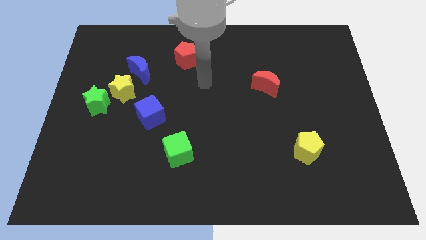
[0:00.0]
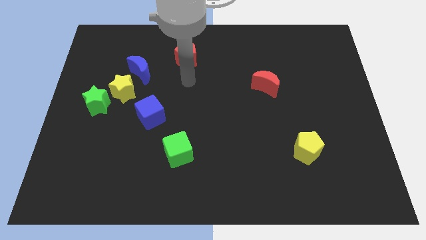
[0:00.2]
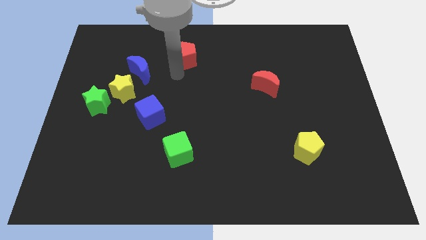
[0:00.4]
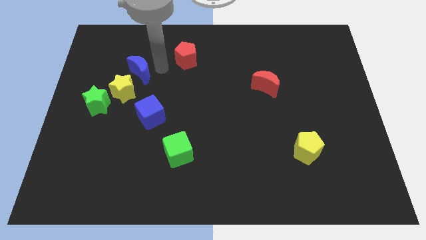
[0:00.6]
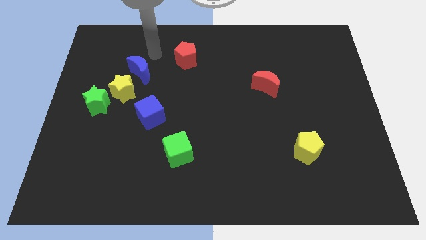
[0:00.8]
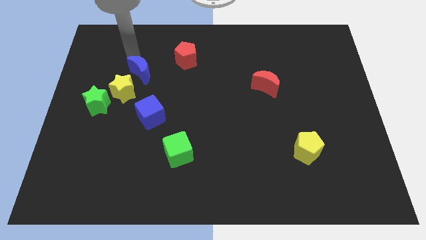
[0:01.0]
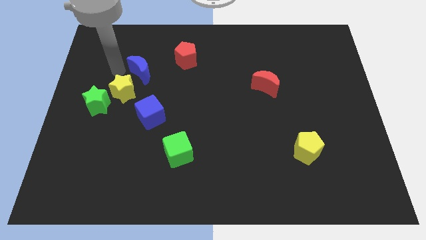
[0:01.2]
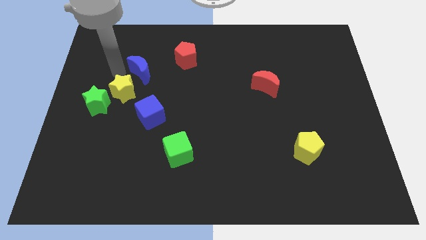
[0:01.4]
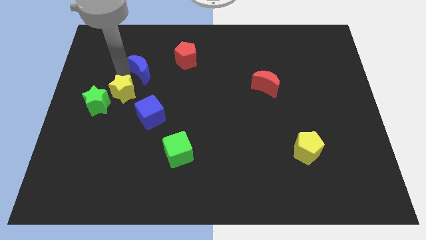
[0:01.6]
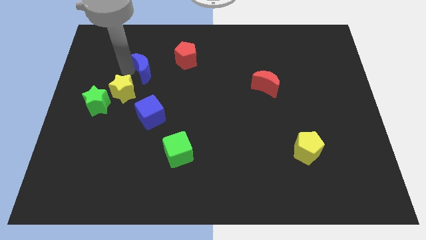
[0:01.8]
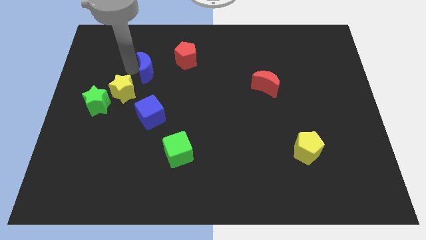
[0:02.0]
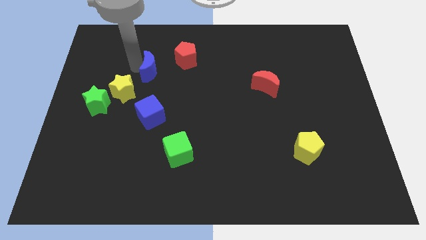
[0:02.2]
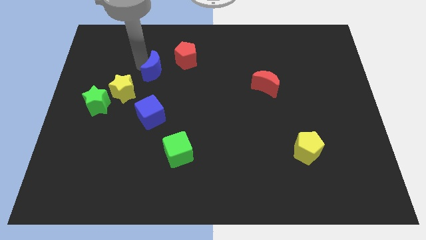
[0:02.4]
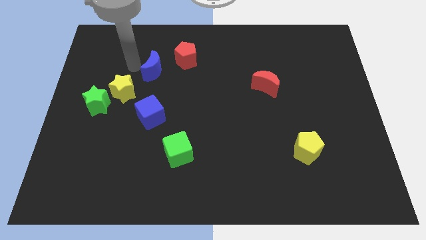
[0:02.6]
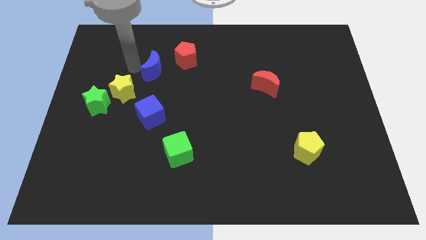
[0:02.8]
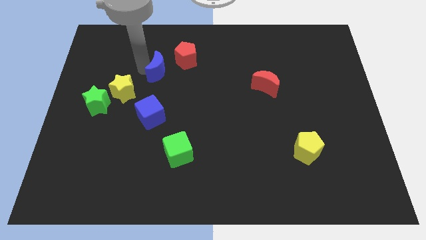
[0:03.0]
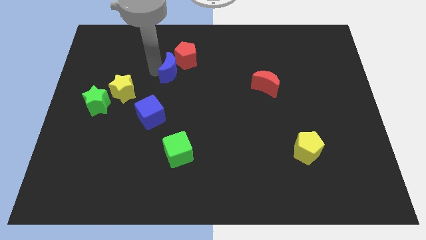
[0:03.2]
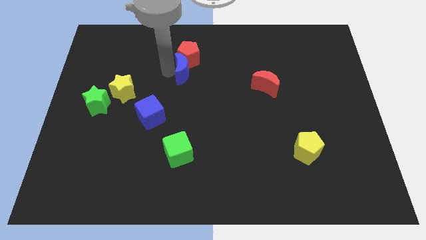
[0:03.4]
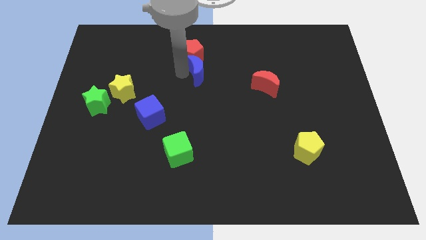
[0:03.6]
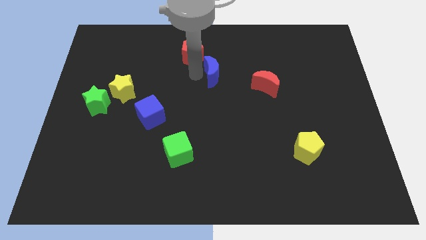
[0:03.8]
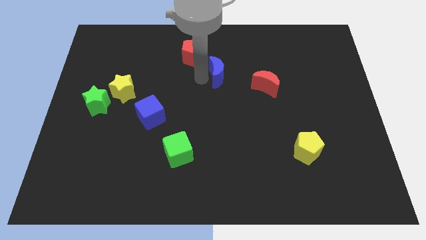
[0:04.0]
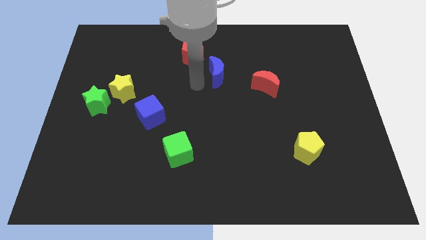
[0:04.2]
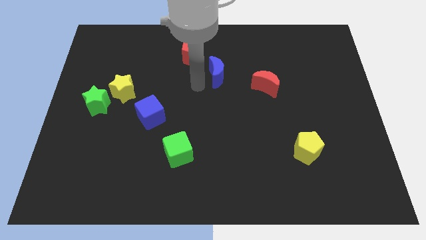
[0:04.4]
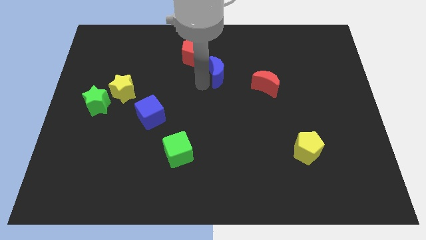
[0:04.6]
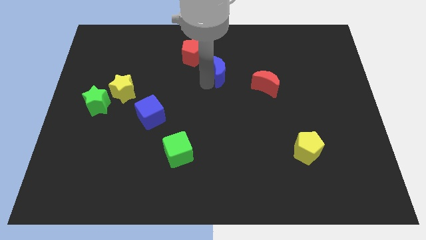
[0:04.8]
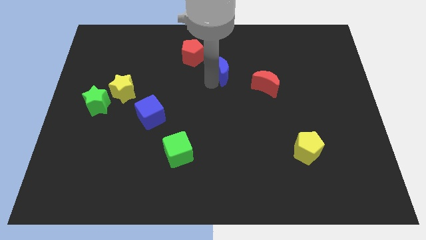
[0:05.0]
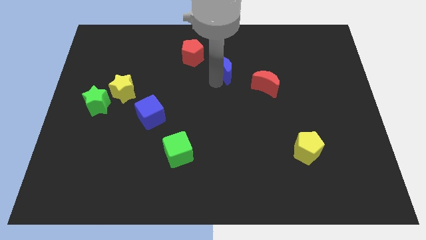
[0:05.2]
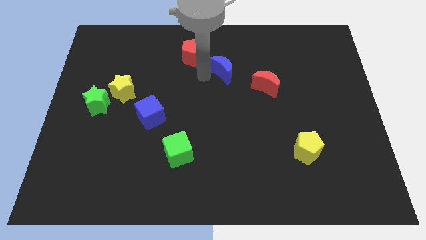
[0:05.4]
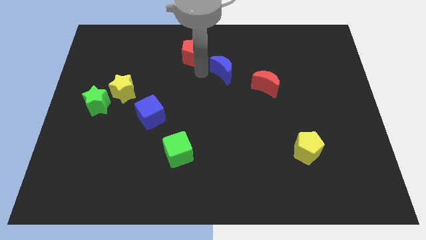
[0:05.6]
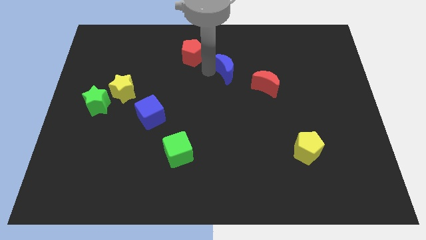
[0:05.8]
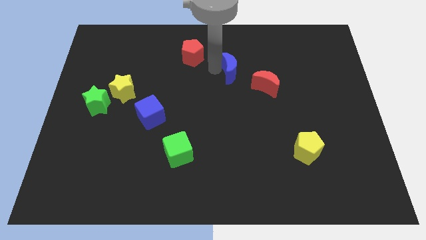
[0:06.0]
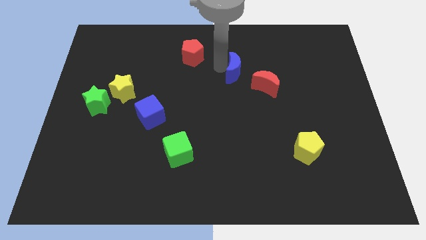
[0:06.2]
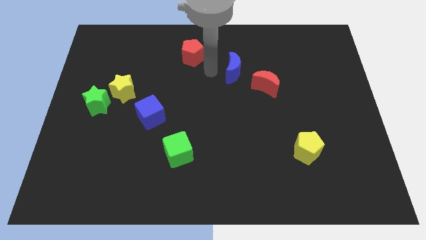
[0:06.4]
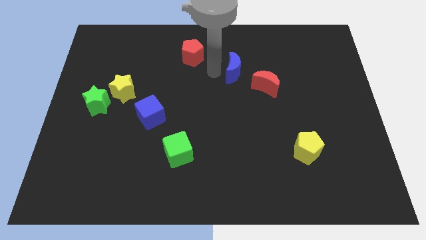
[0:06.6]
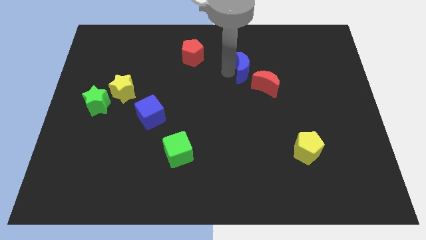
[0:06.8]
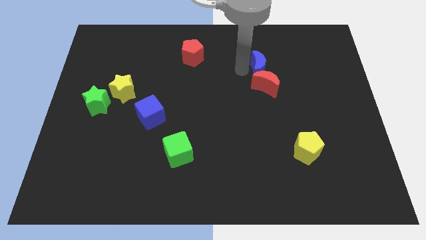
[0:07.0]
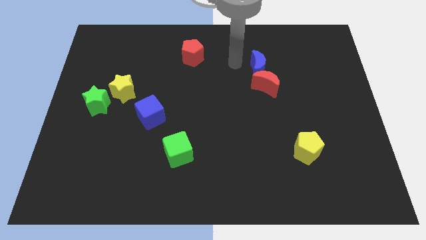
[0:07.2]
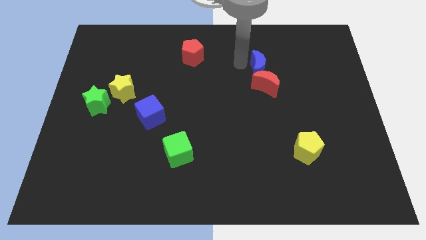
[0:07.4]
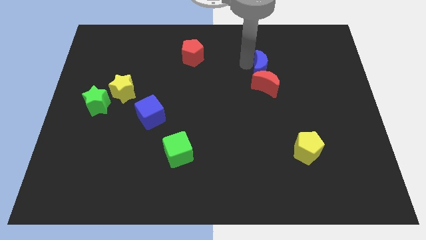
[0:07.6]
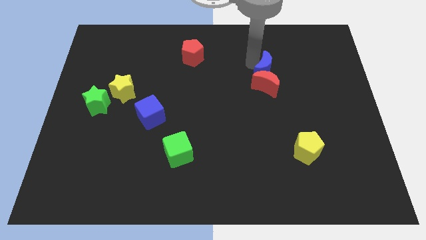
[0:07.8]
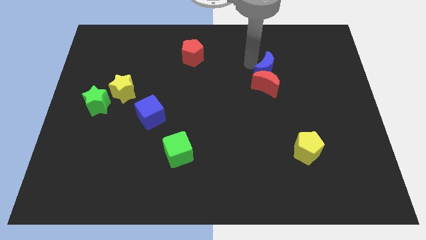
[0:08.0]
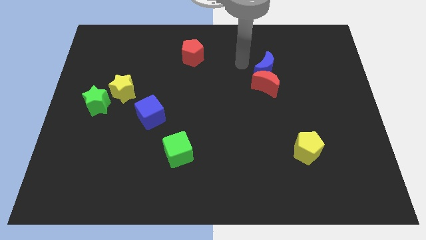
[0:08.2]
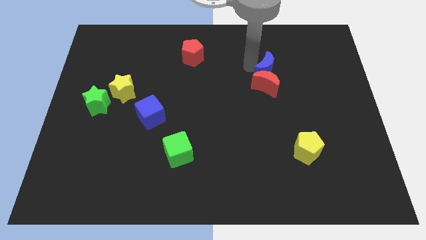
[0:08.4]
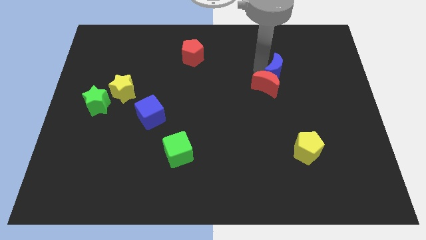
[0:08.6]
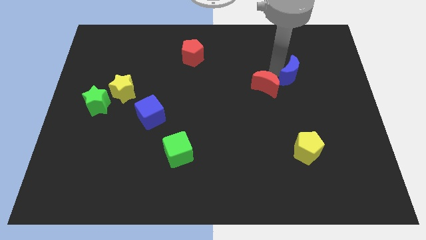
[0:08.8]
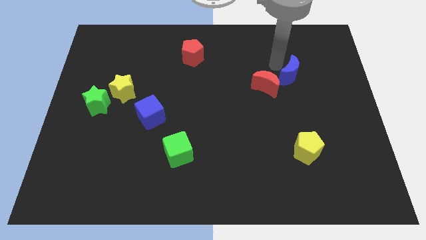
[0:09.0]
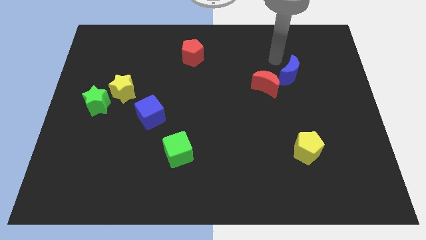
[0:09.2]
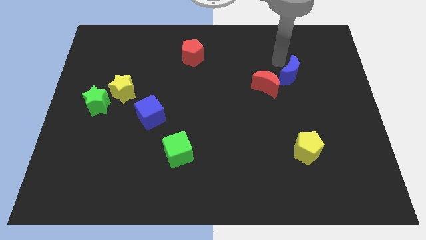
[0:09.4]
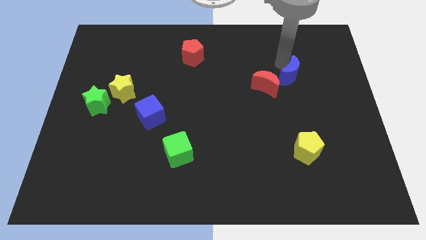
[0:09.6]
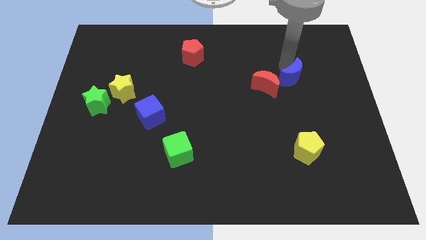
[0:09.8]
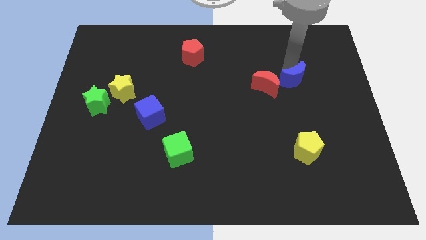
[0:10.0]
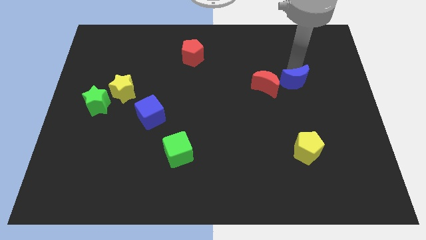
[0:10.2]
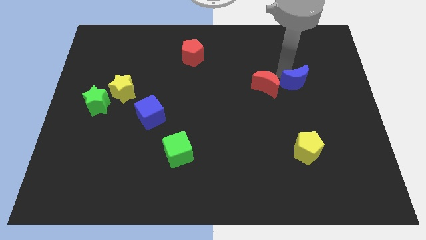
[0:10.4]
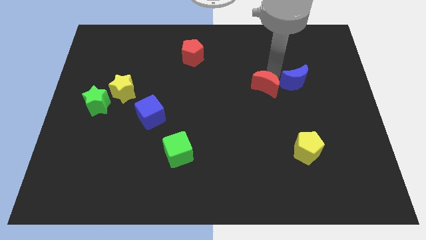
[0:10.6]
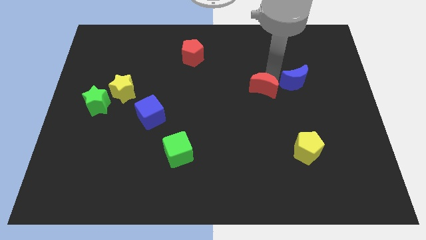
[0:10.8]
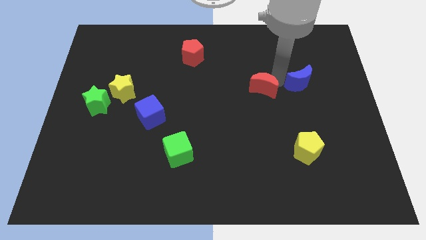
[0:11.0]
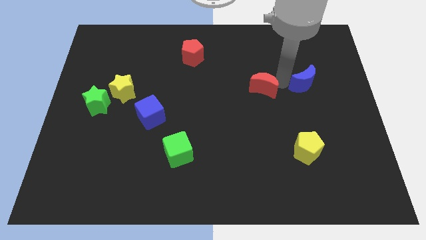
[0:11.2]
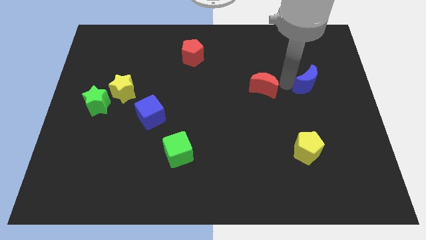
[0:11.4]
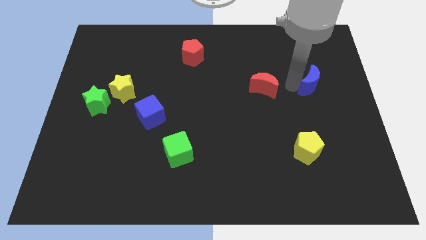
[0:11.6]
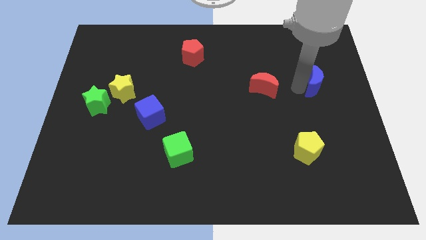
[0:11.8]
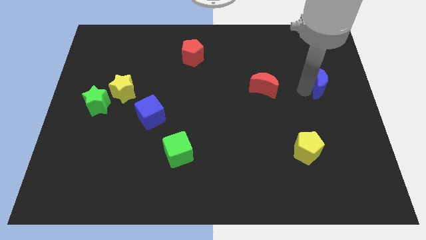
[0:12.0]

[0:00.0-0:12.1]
slide the blue moon to the right side of the board
